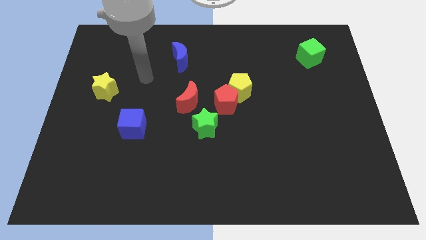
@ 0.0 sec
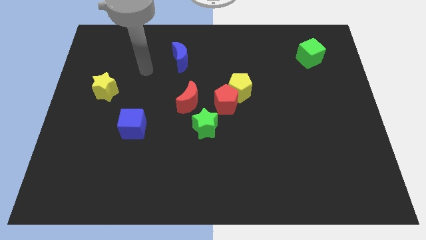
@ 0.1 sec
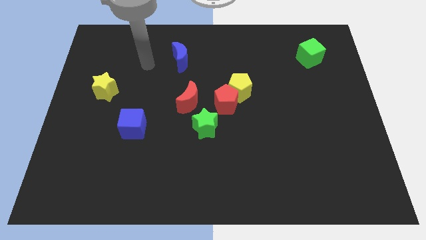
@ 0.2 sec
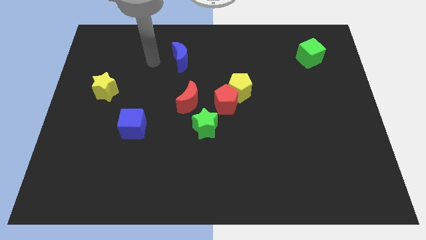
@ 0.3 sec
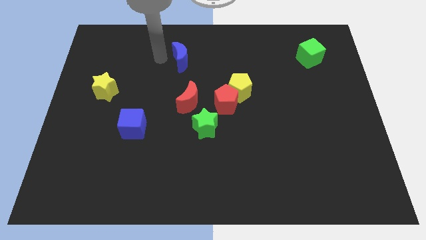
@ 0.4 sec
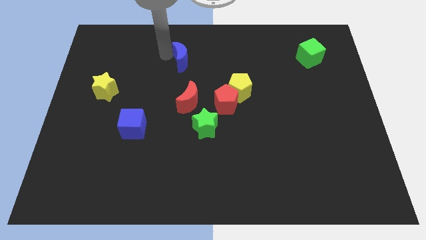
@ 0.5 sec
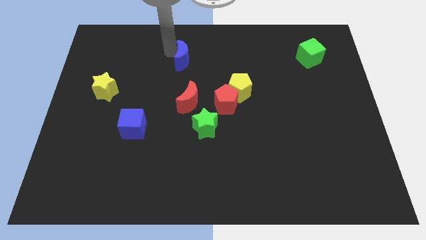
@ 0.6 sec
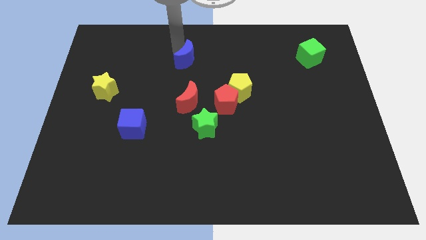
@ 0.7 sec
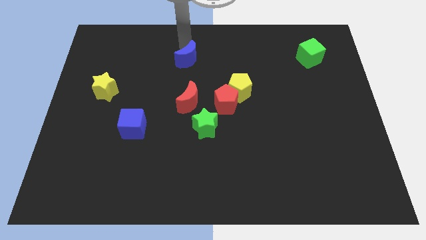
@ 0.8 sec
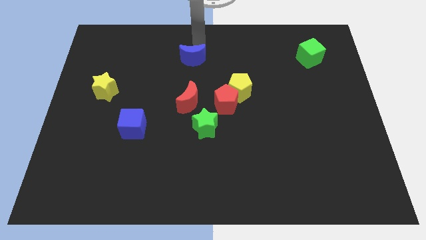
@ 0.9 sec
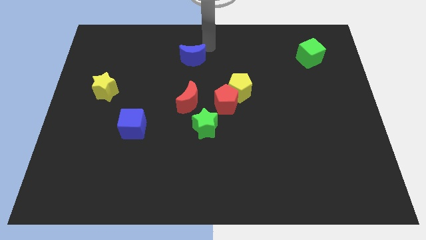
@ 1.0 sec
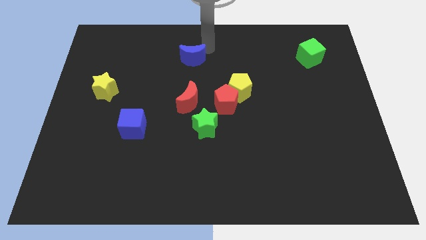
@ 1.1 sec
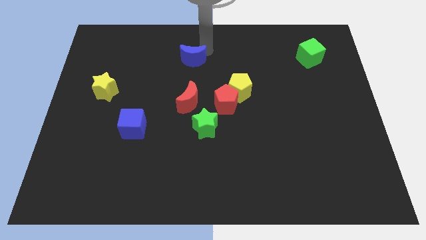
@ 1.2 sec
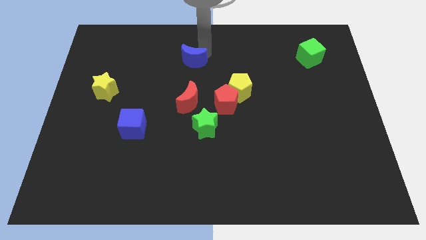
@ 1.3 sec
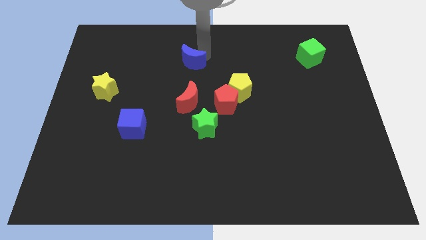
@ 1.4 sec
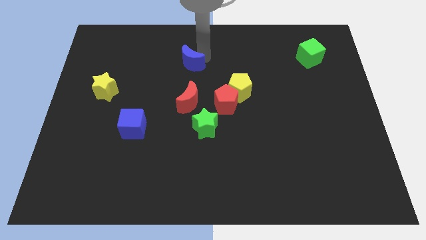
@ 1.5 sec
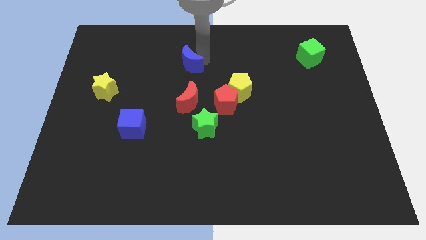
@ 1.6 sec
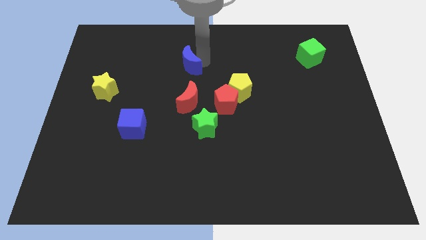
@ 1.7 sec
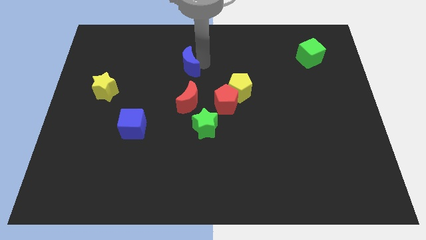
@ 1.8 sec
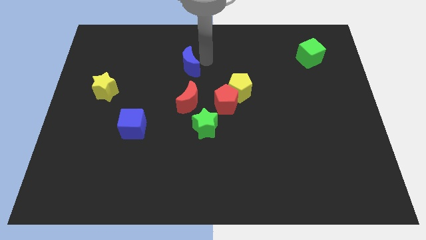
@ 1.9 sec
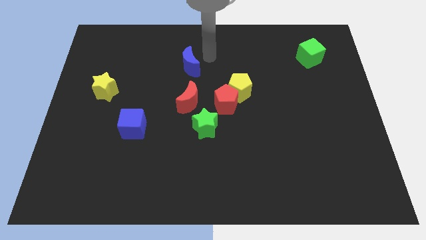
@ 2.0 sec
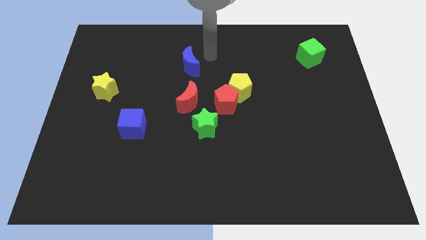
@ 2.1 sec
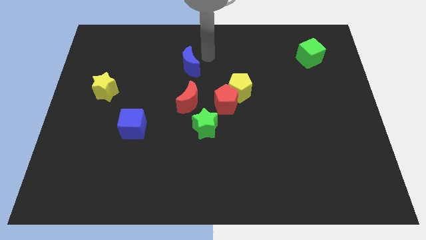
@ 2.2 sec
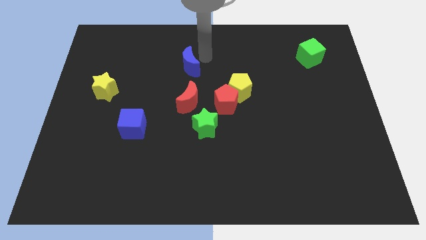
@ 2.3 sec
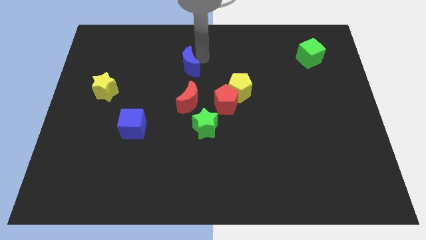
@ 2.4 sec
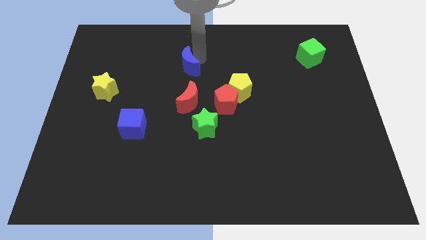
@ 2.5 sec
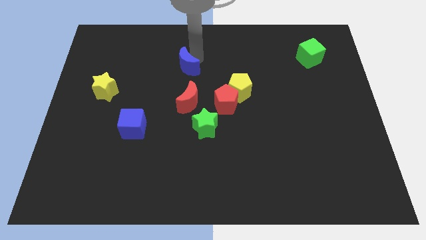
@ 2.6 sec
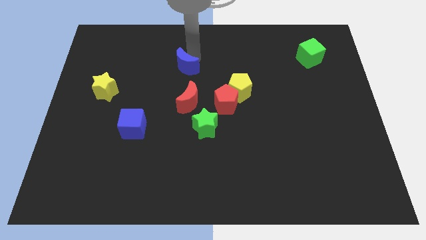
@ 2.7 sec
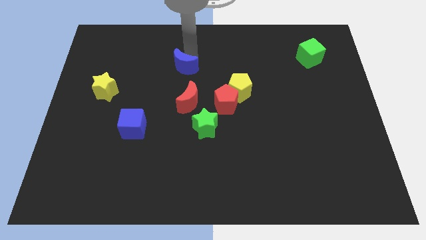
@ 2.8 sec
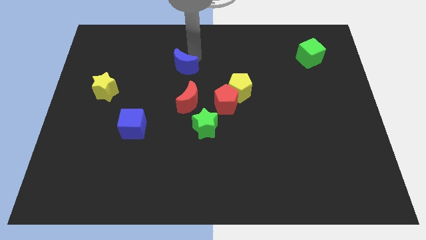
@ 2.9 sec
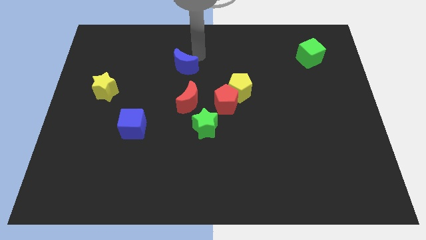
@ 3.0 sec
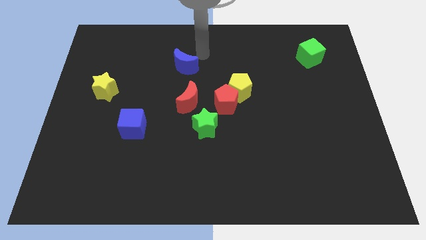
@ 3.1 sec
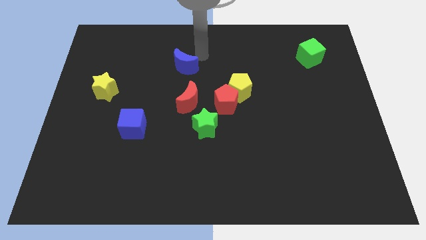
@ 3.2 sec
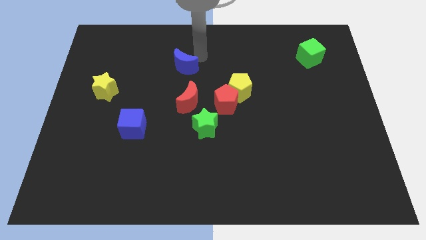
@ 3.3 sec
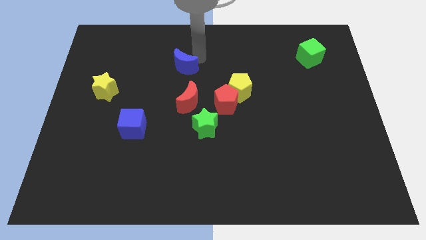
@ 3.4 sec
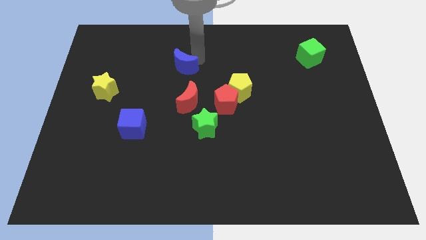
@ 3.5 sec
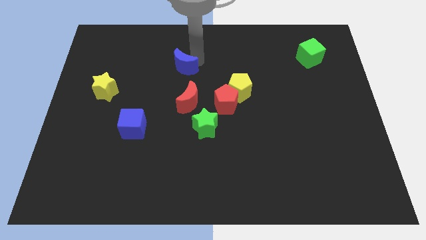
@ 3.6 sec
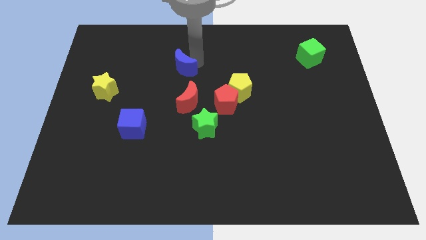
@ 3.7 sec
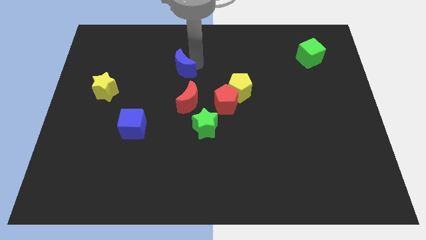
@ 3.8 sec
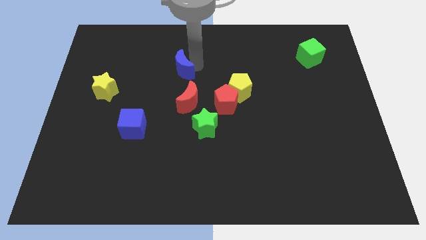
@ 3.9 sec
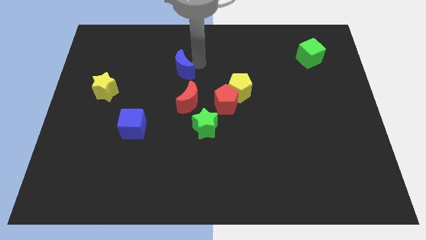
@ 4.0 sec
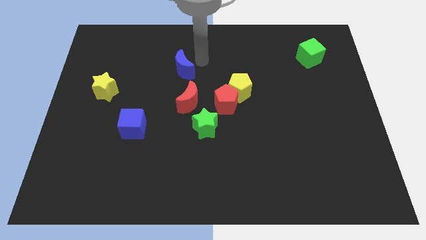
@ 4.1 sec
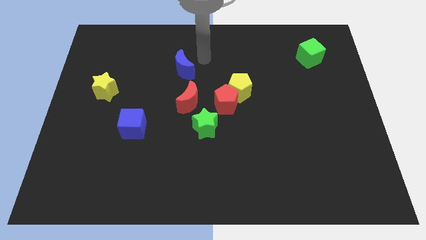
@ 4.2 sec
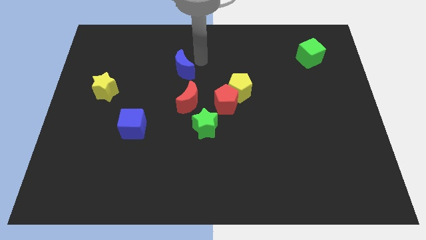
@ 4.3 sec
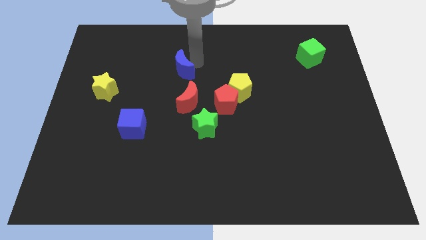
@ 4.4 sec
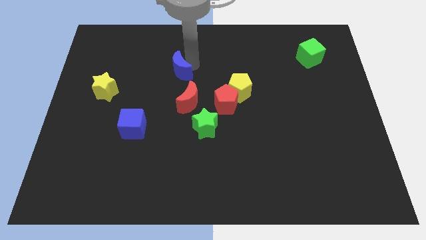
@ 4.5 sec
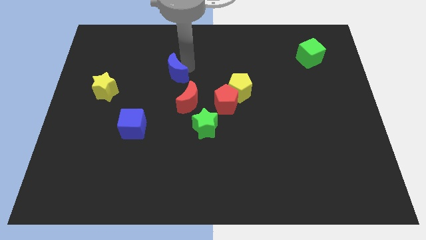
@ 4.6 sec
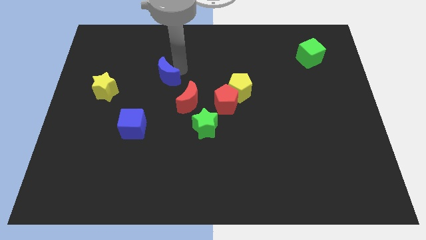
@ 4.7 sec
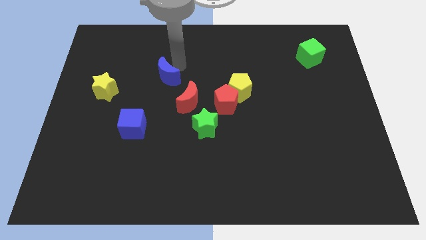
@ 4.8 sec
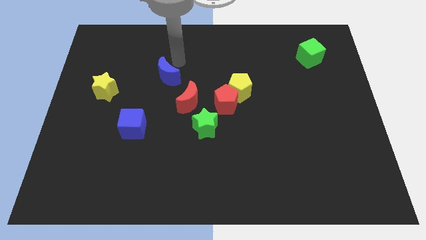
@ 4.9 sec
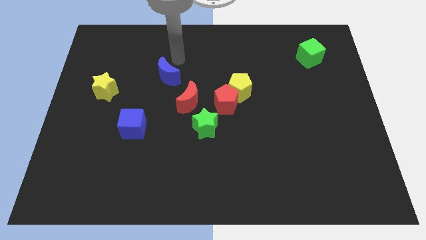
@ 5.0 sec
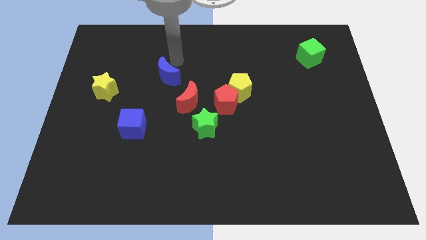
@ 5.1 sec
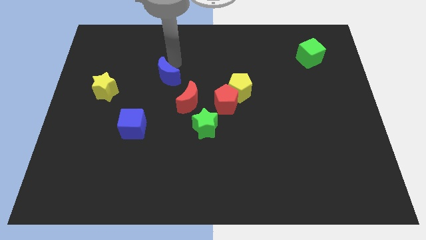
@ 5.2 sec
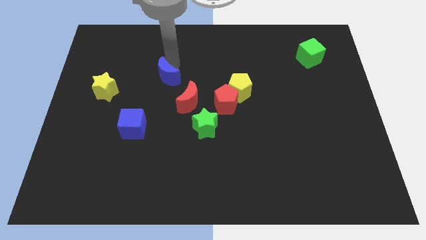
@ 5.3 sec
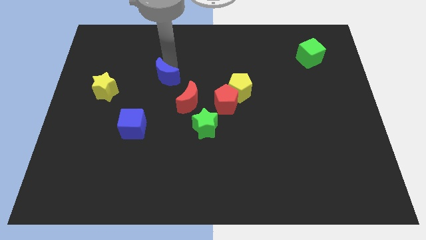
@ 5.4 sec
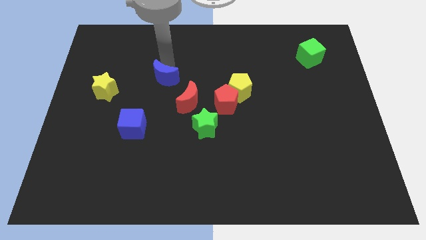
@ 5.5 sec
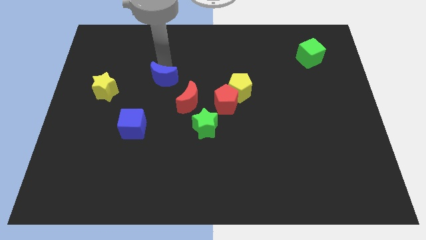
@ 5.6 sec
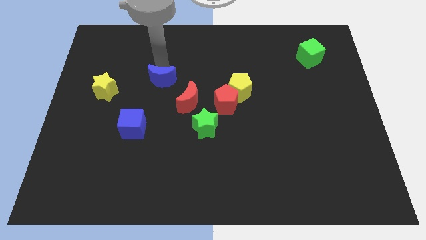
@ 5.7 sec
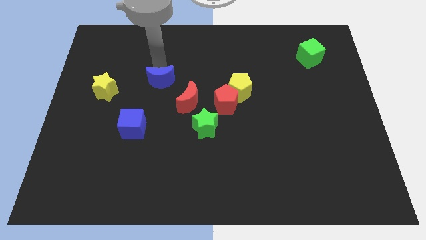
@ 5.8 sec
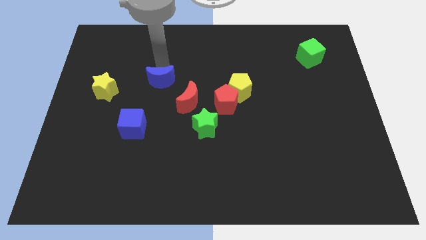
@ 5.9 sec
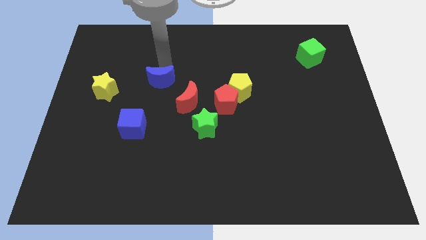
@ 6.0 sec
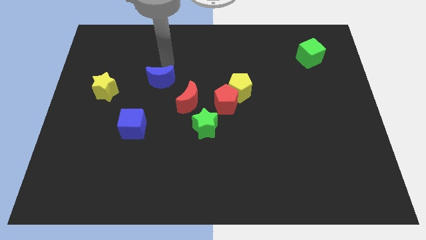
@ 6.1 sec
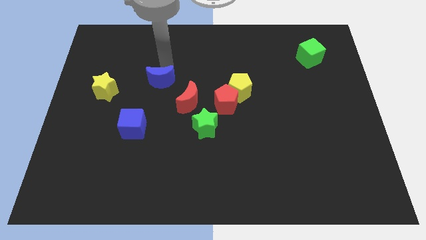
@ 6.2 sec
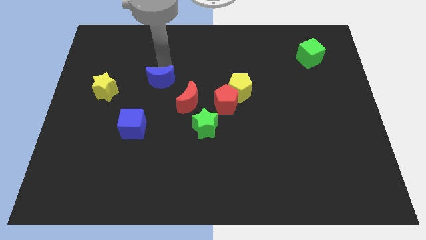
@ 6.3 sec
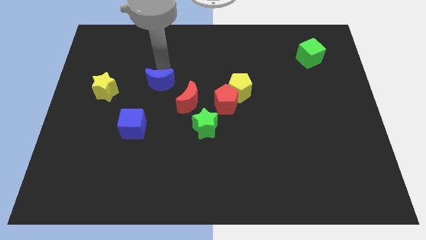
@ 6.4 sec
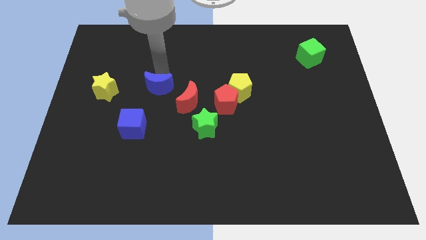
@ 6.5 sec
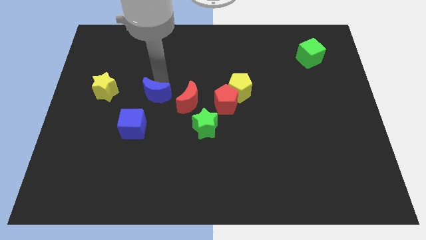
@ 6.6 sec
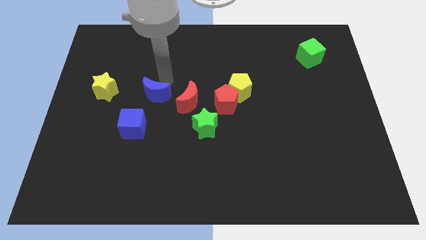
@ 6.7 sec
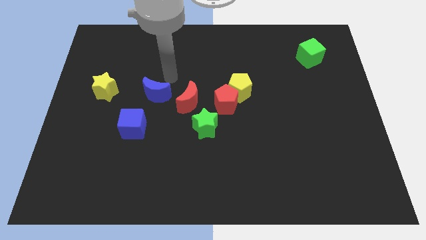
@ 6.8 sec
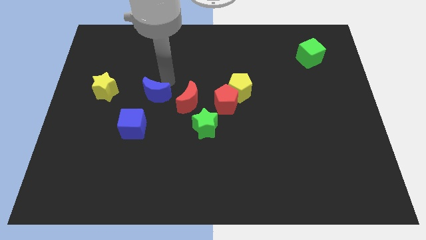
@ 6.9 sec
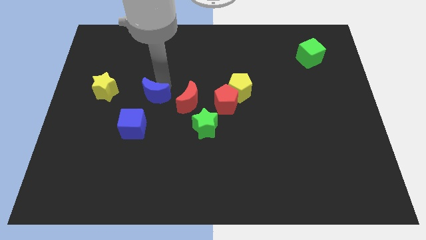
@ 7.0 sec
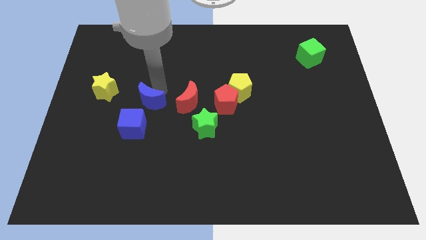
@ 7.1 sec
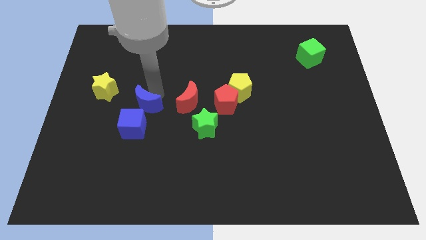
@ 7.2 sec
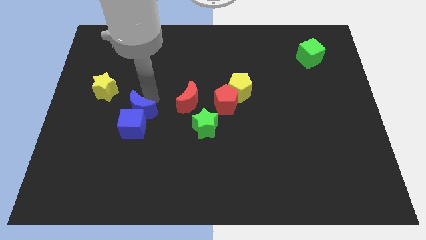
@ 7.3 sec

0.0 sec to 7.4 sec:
put the blue moon next to the blue cube
